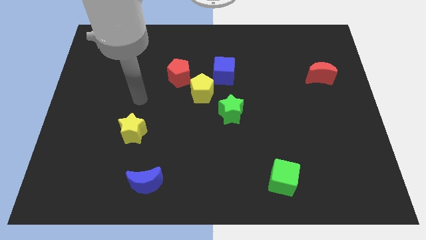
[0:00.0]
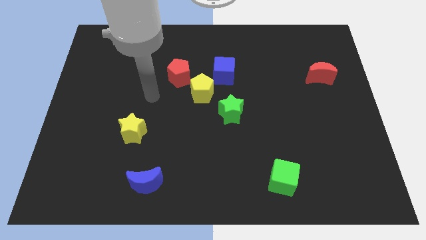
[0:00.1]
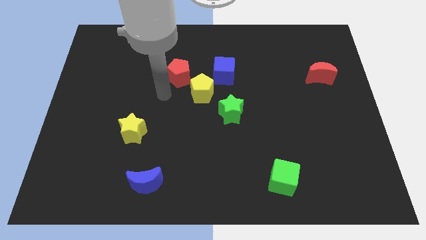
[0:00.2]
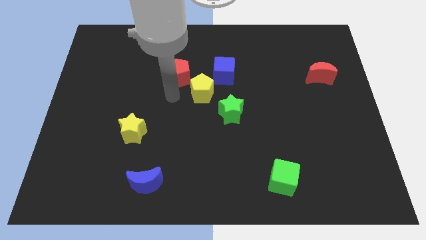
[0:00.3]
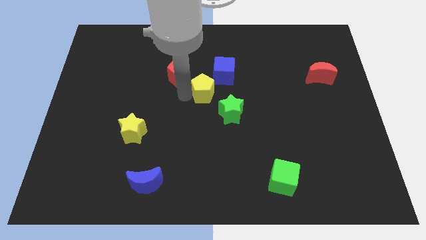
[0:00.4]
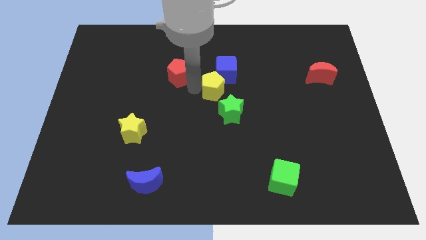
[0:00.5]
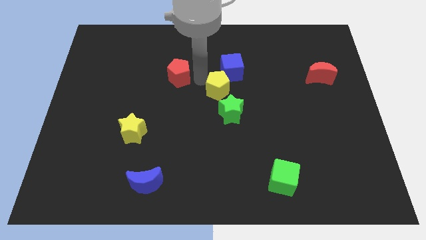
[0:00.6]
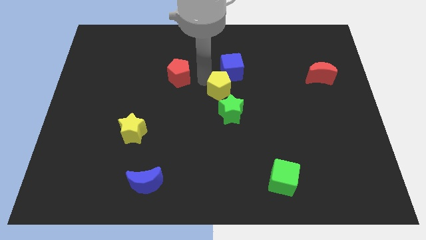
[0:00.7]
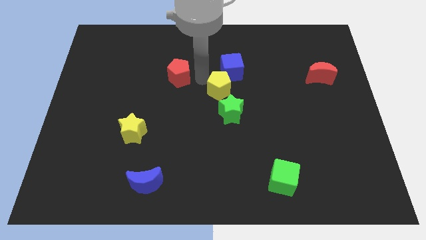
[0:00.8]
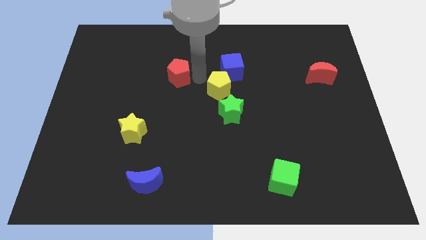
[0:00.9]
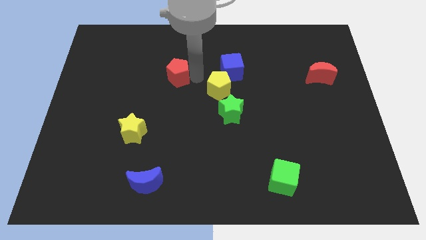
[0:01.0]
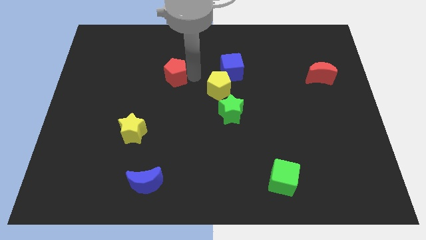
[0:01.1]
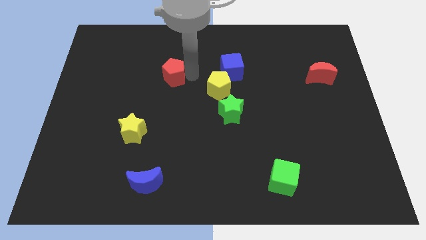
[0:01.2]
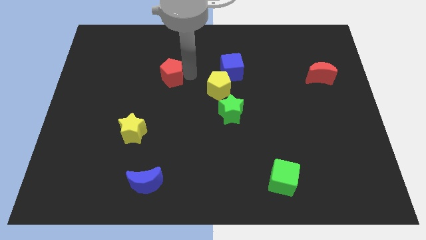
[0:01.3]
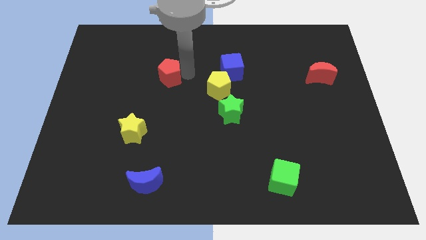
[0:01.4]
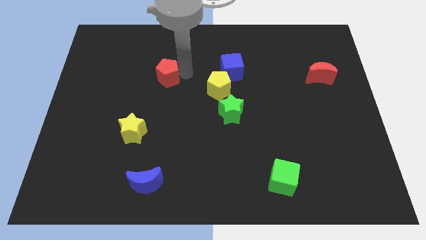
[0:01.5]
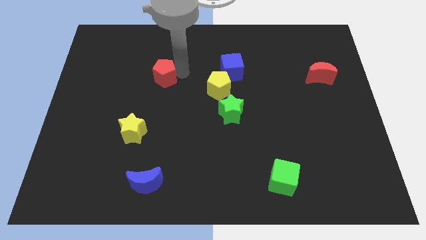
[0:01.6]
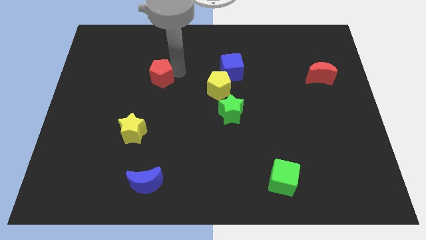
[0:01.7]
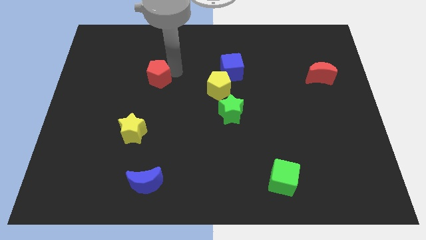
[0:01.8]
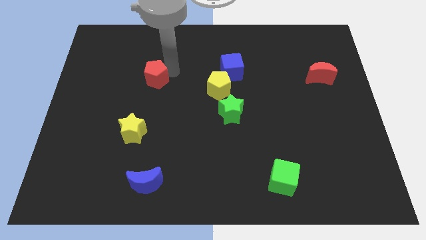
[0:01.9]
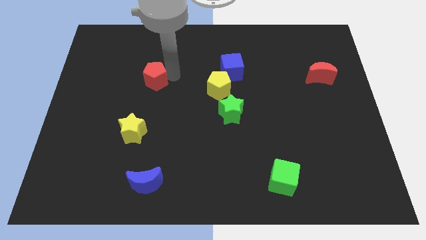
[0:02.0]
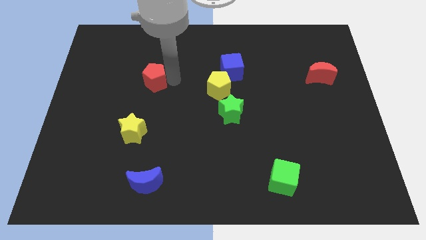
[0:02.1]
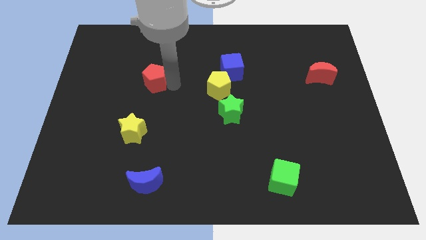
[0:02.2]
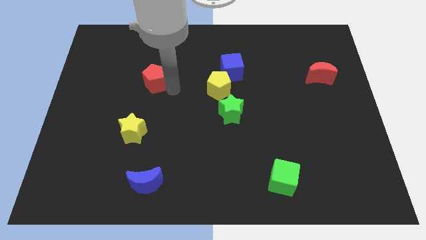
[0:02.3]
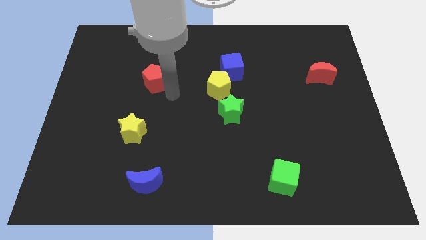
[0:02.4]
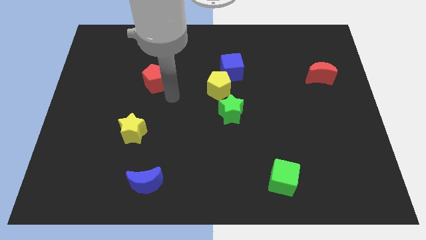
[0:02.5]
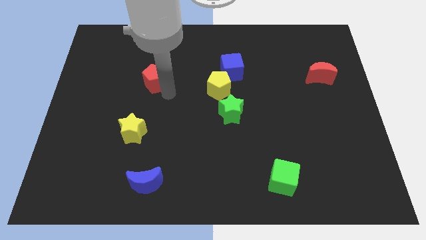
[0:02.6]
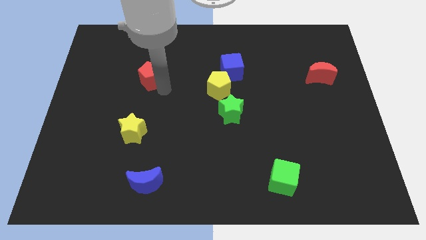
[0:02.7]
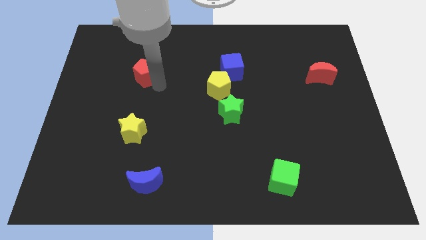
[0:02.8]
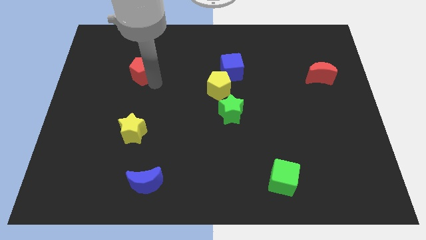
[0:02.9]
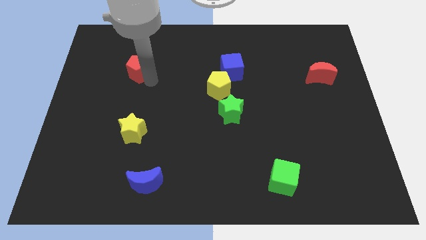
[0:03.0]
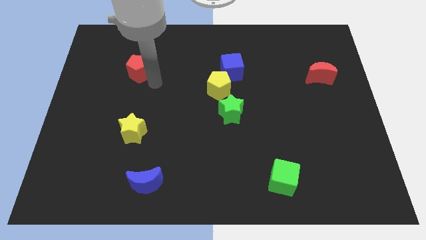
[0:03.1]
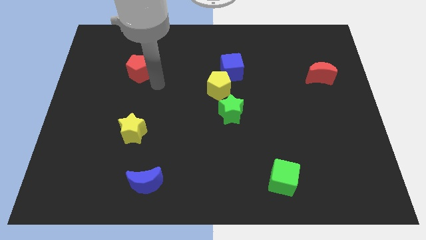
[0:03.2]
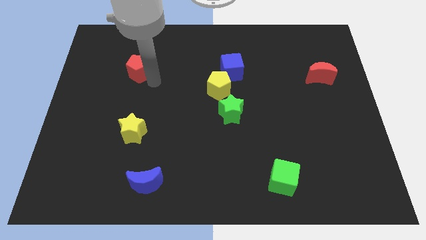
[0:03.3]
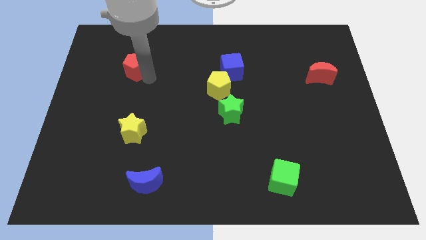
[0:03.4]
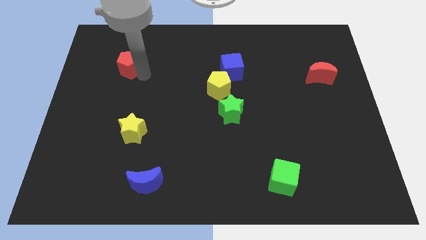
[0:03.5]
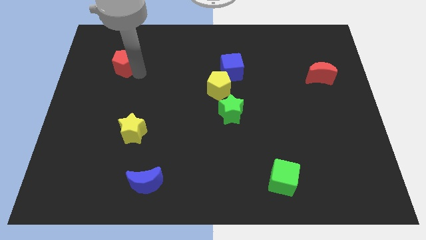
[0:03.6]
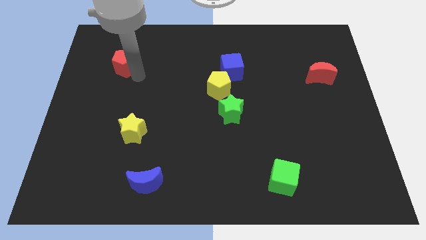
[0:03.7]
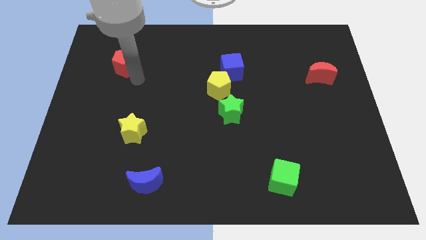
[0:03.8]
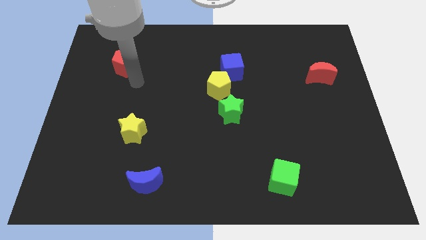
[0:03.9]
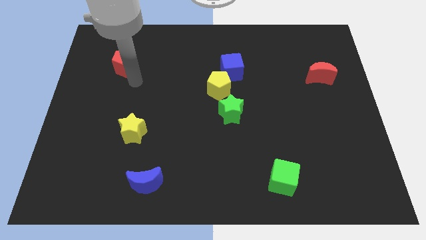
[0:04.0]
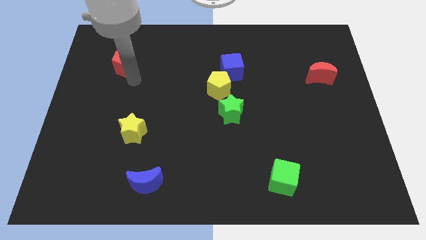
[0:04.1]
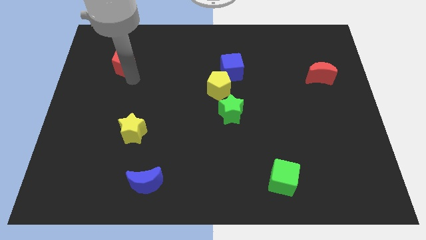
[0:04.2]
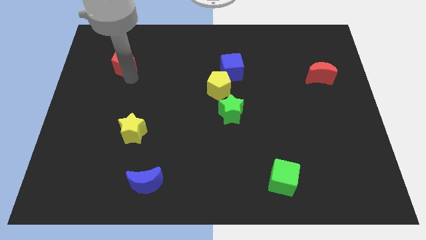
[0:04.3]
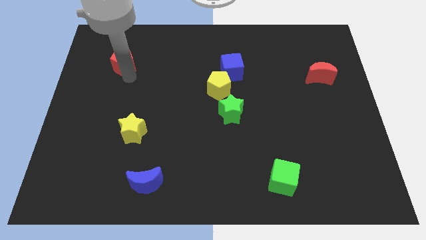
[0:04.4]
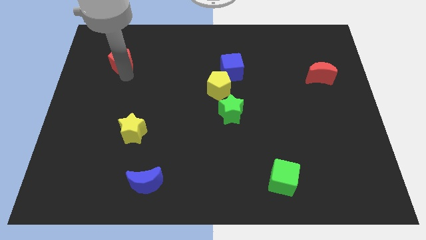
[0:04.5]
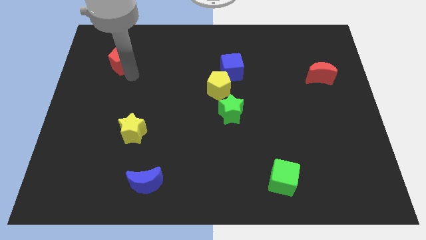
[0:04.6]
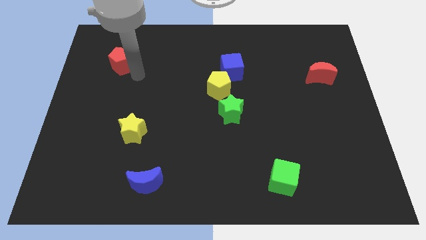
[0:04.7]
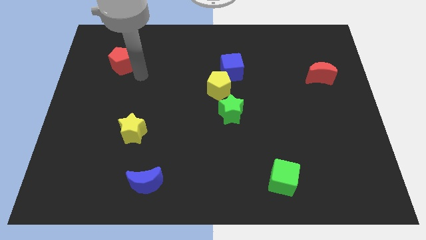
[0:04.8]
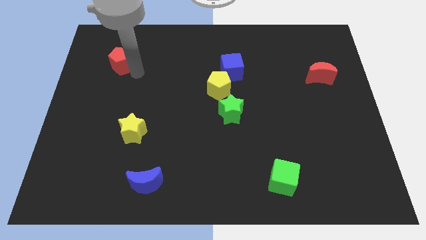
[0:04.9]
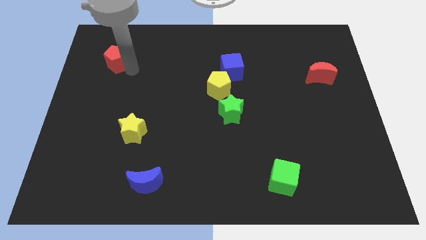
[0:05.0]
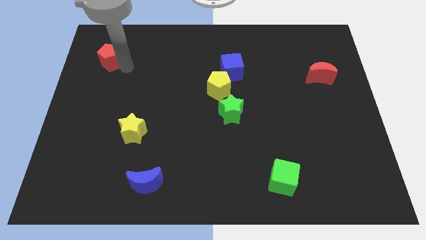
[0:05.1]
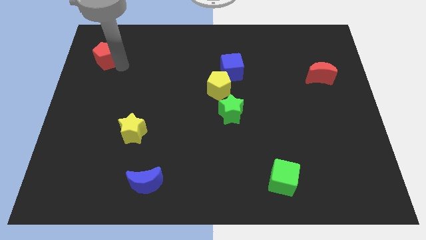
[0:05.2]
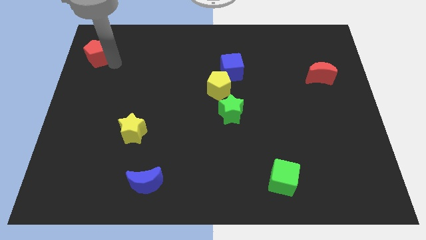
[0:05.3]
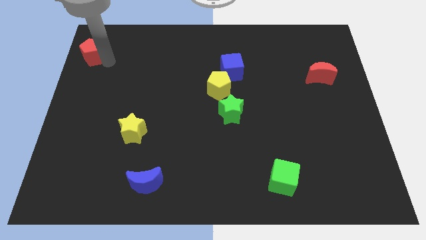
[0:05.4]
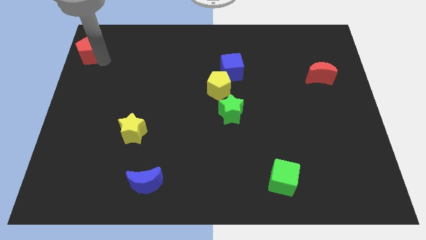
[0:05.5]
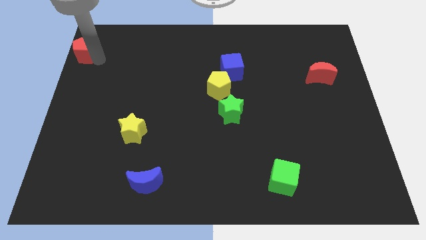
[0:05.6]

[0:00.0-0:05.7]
slide the red pentagon to the top left

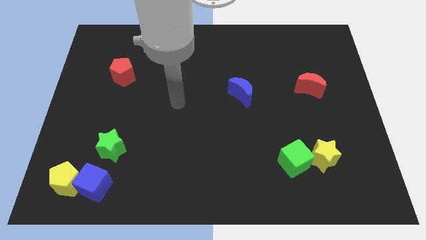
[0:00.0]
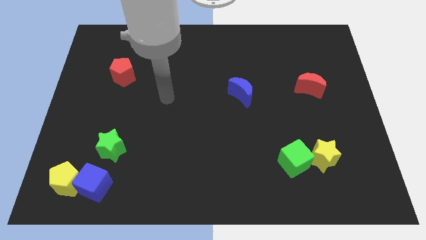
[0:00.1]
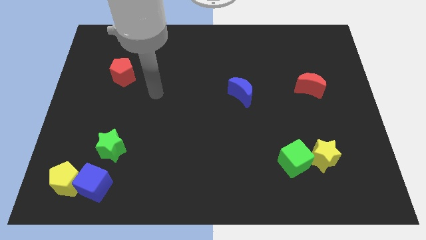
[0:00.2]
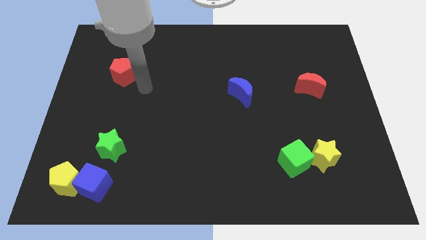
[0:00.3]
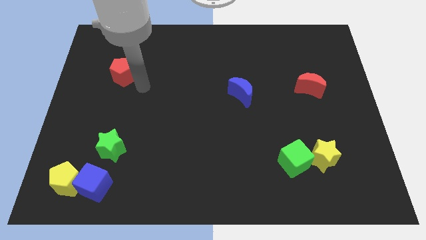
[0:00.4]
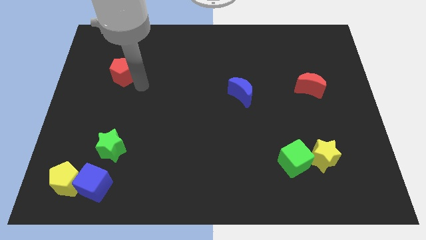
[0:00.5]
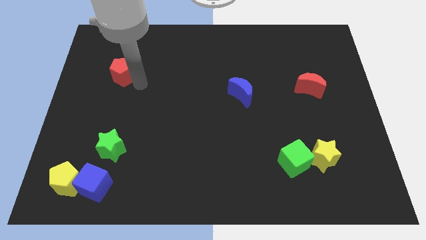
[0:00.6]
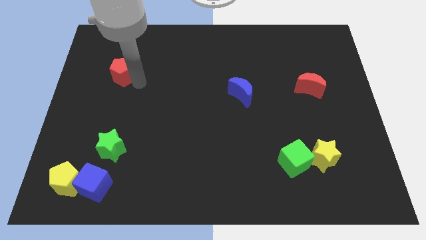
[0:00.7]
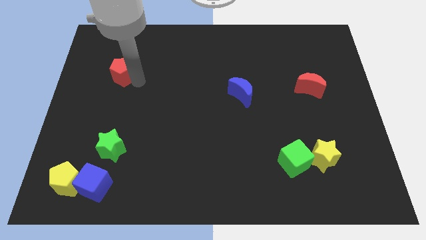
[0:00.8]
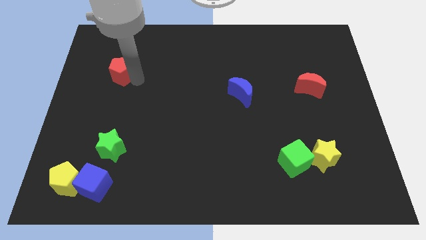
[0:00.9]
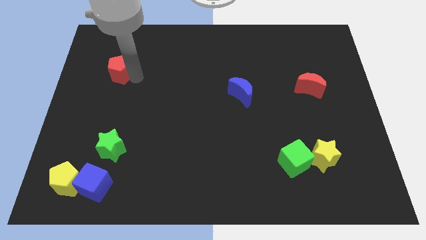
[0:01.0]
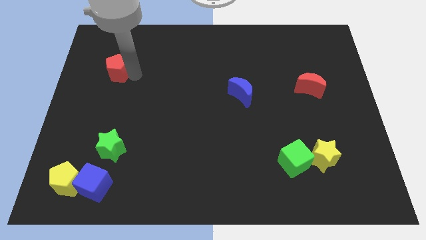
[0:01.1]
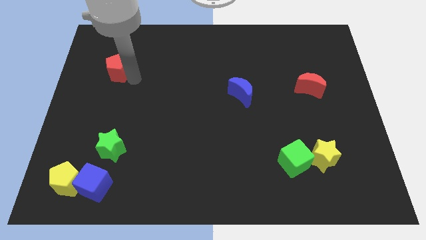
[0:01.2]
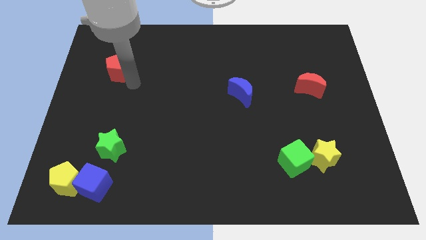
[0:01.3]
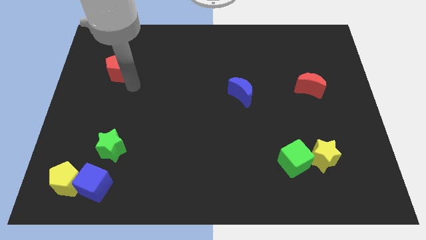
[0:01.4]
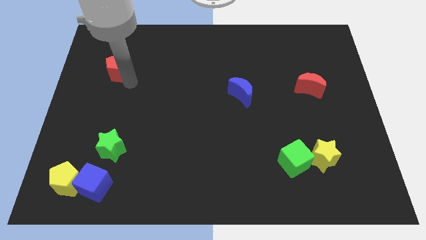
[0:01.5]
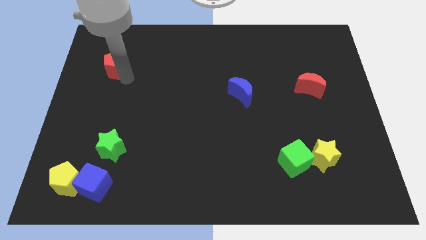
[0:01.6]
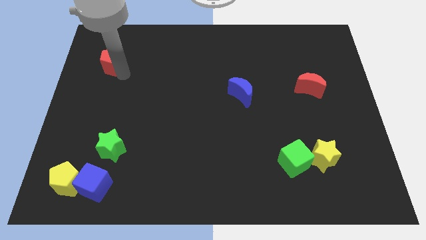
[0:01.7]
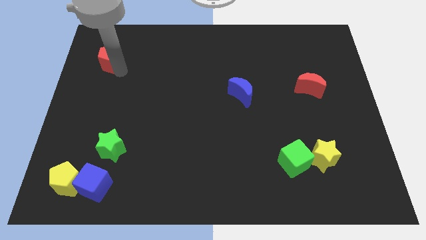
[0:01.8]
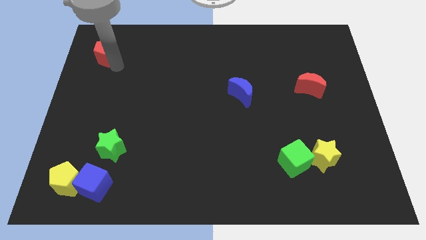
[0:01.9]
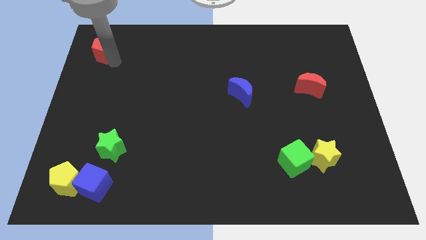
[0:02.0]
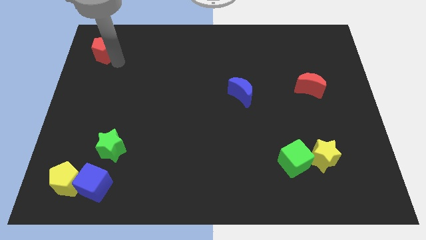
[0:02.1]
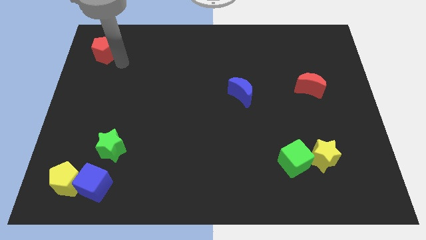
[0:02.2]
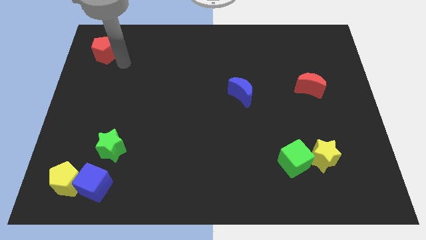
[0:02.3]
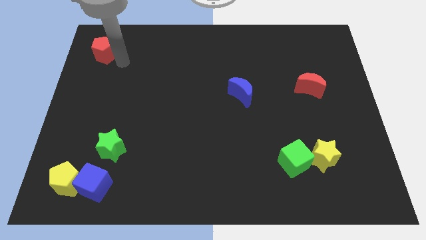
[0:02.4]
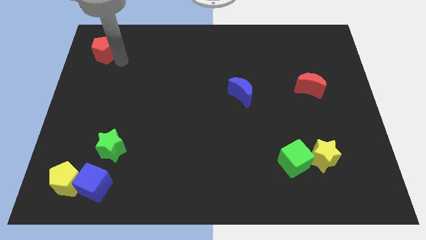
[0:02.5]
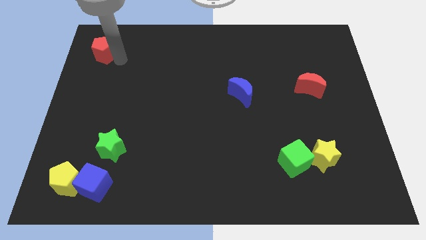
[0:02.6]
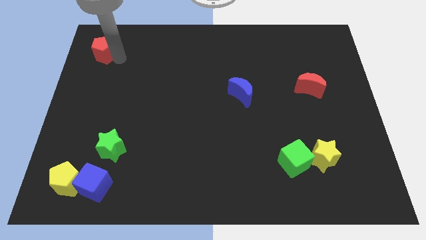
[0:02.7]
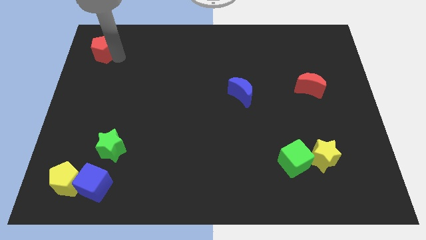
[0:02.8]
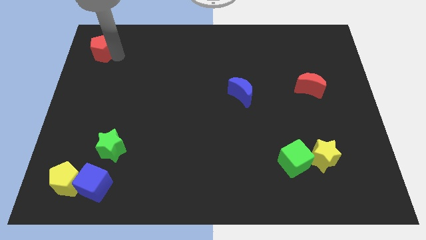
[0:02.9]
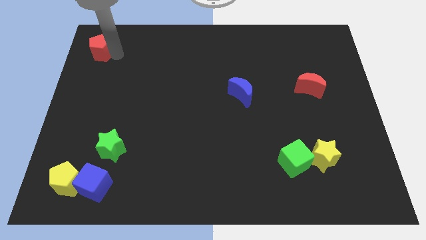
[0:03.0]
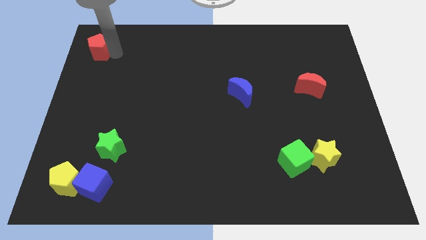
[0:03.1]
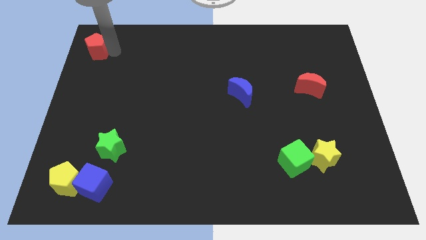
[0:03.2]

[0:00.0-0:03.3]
put the red pentagon to the top left of the board
